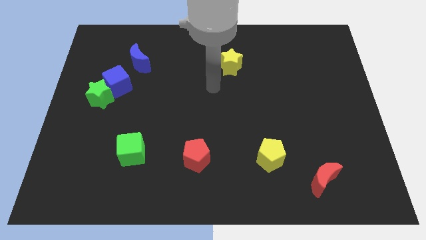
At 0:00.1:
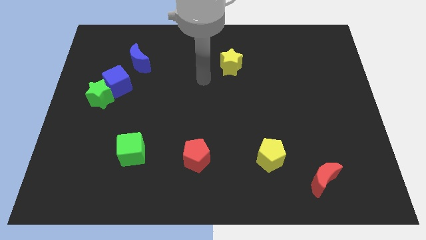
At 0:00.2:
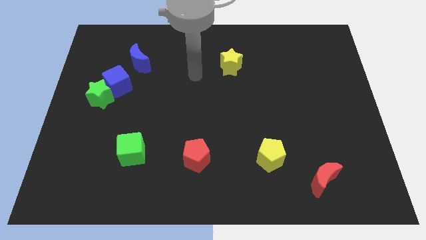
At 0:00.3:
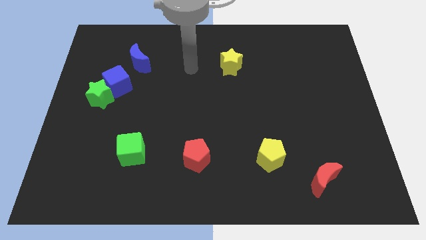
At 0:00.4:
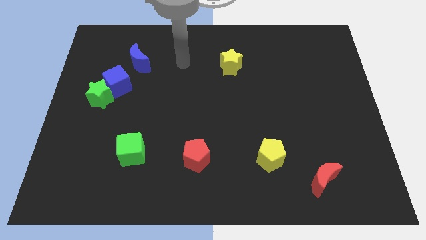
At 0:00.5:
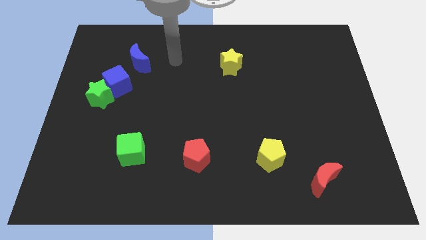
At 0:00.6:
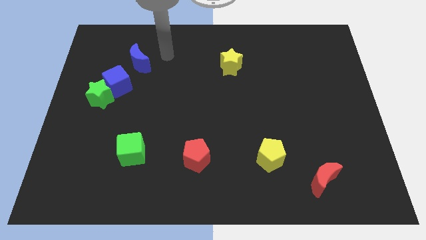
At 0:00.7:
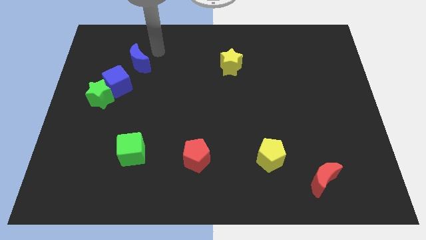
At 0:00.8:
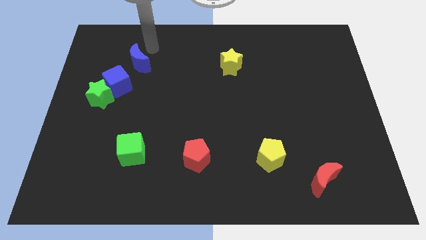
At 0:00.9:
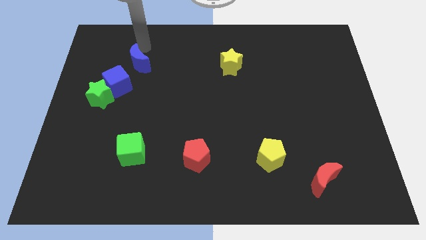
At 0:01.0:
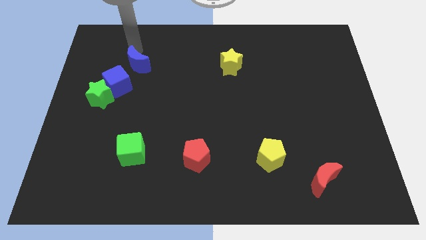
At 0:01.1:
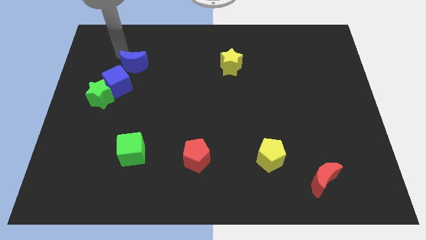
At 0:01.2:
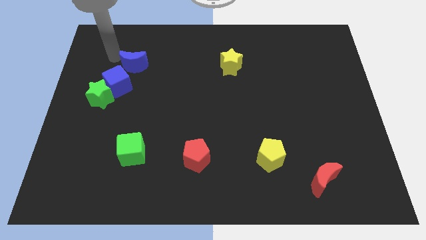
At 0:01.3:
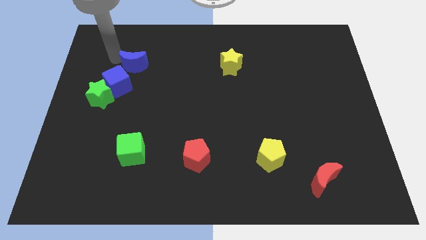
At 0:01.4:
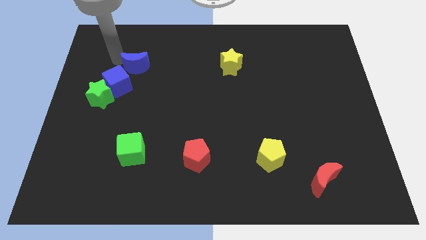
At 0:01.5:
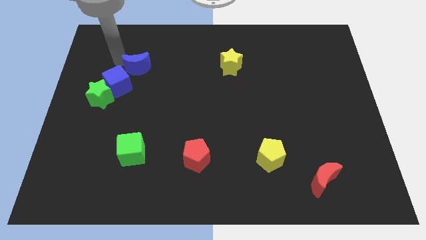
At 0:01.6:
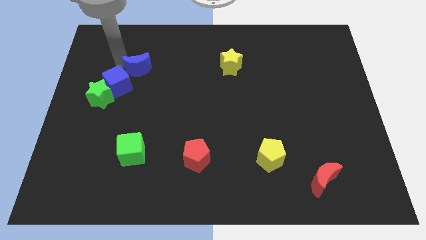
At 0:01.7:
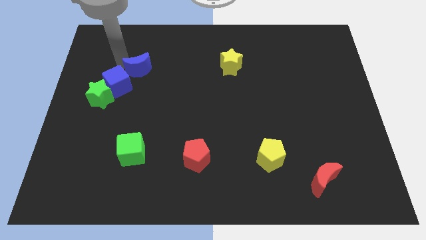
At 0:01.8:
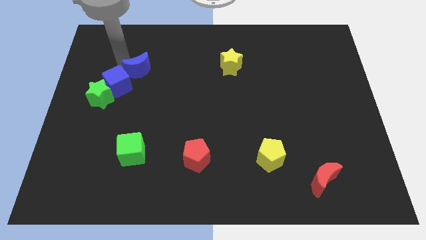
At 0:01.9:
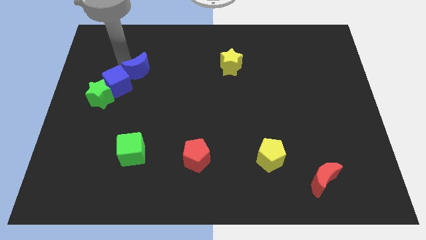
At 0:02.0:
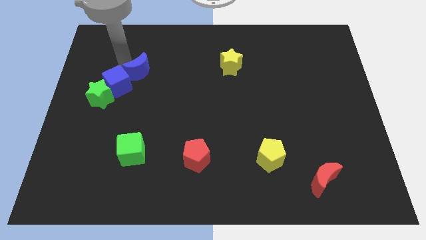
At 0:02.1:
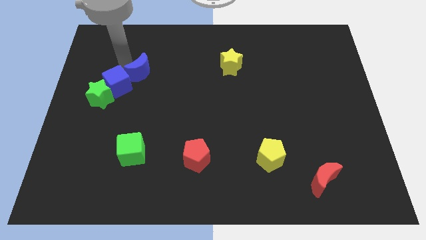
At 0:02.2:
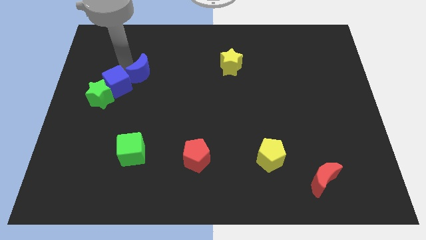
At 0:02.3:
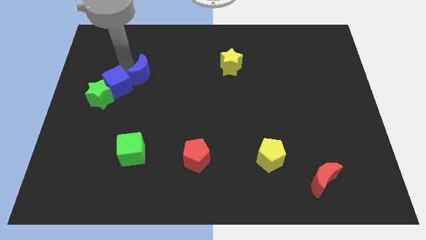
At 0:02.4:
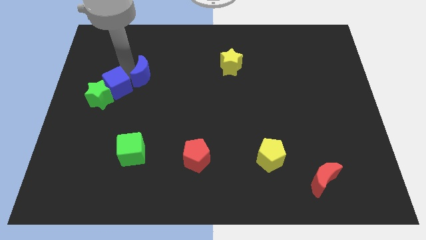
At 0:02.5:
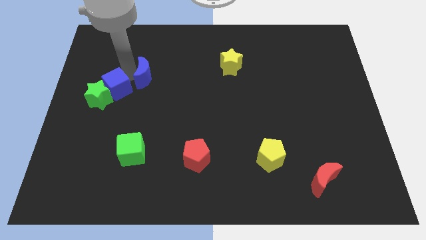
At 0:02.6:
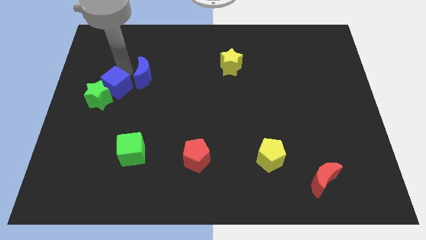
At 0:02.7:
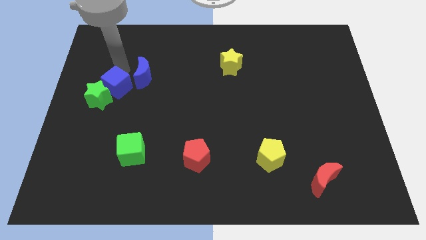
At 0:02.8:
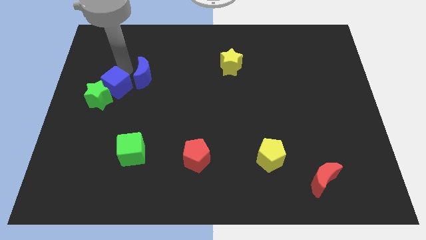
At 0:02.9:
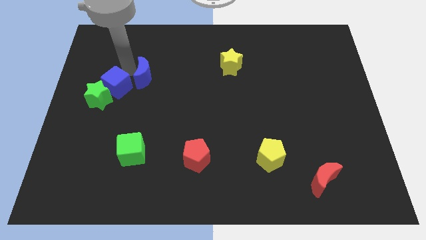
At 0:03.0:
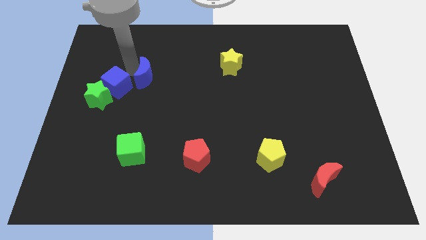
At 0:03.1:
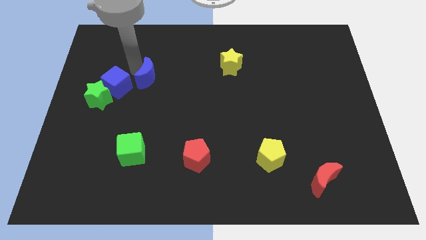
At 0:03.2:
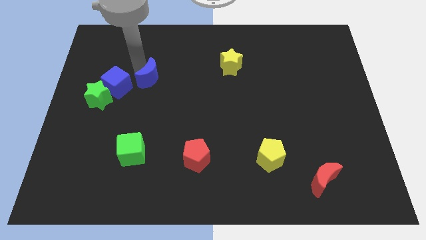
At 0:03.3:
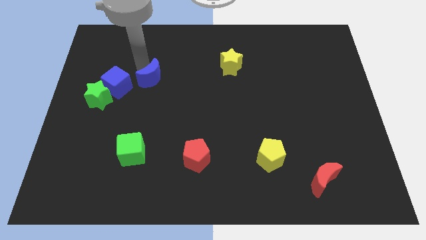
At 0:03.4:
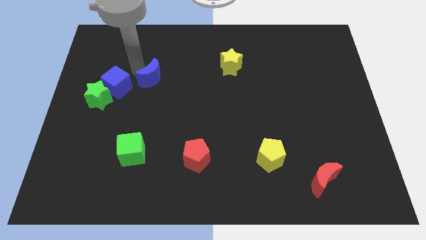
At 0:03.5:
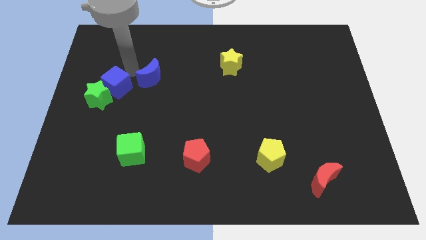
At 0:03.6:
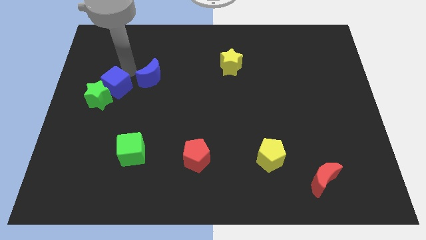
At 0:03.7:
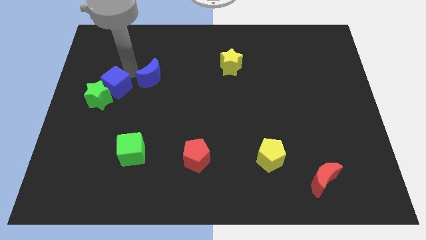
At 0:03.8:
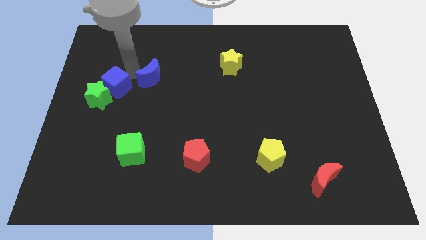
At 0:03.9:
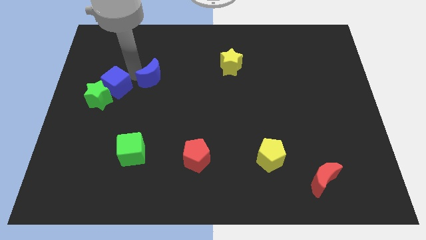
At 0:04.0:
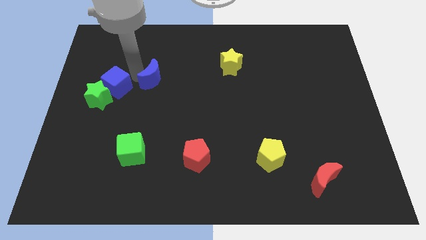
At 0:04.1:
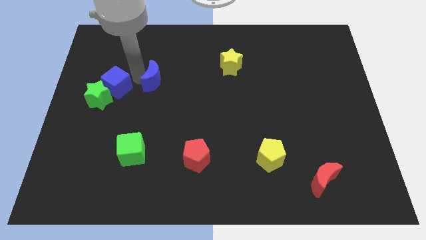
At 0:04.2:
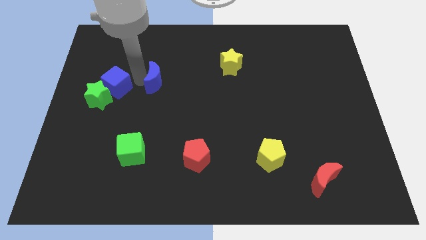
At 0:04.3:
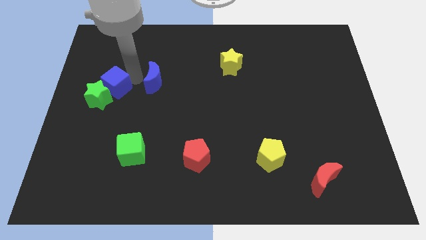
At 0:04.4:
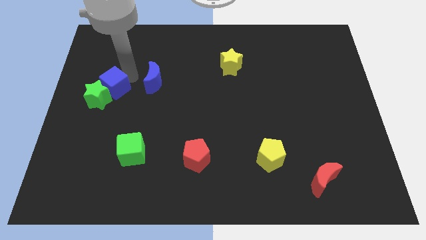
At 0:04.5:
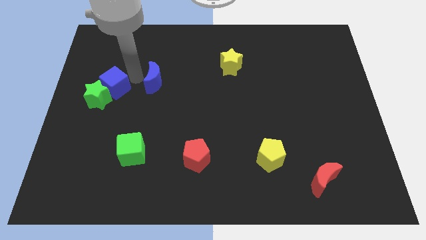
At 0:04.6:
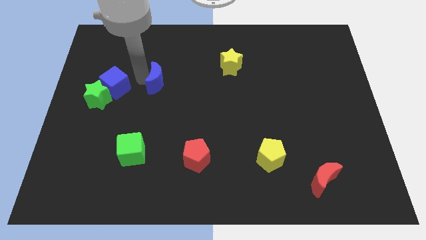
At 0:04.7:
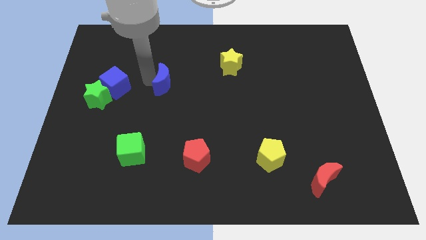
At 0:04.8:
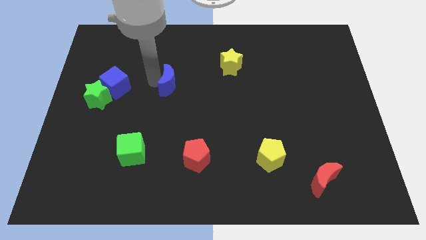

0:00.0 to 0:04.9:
push the blue moon to the center

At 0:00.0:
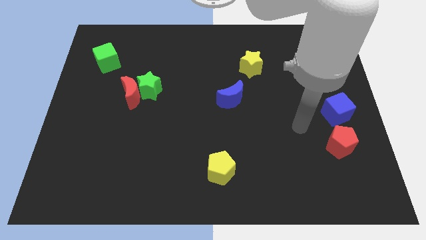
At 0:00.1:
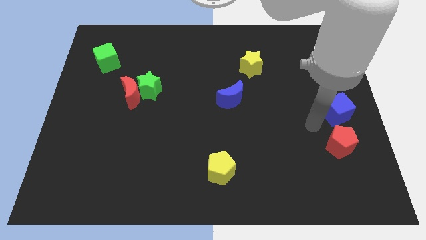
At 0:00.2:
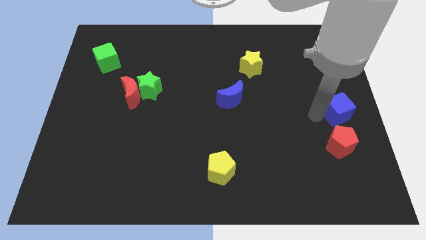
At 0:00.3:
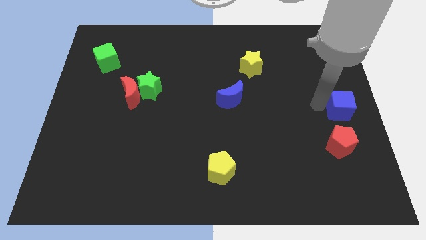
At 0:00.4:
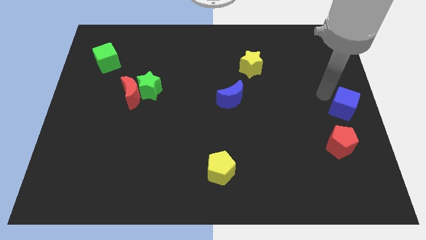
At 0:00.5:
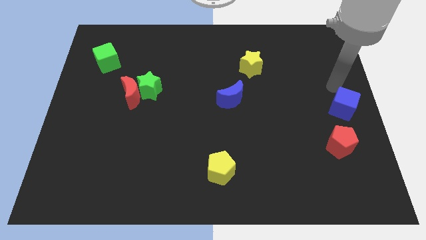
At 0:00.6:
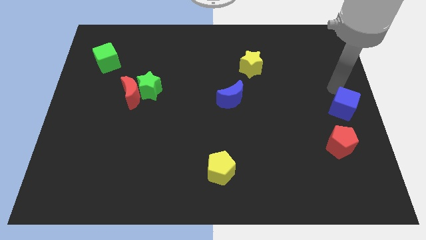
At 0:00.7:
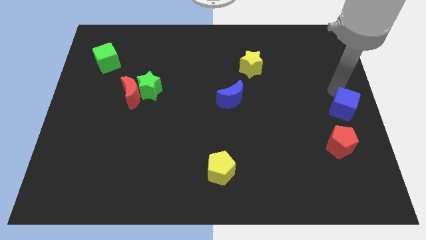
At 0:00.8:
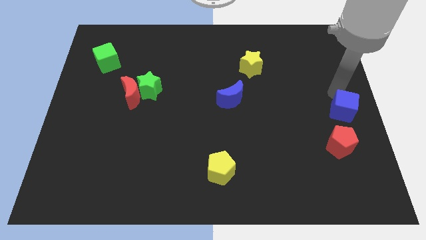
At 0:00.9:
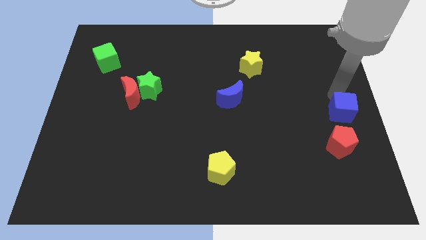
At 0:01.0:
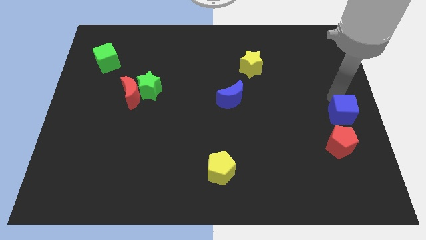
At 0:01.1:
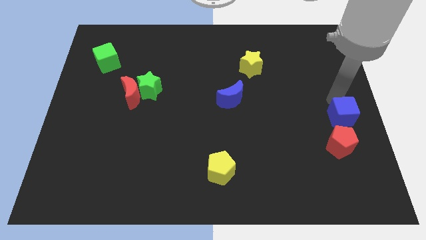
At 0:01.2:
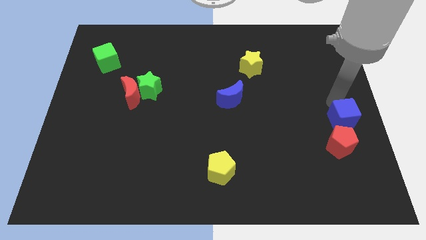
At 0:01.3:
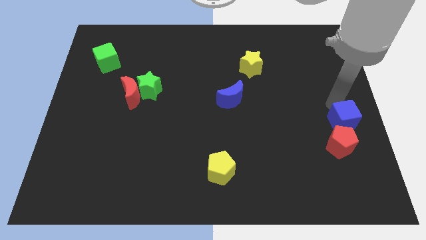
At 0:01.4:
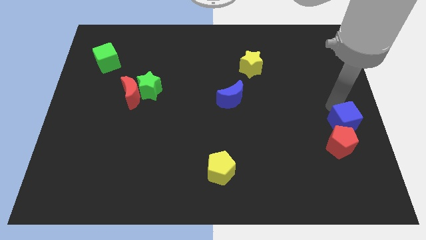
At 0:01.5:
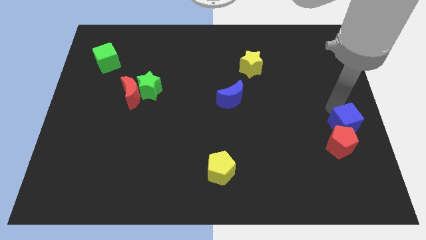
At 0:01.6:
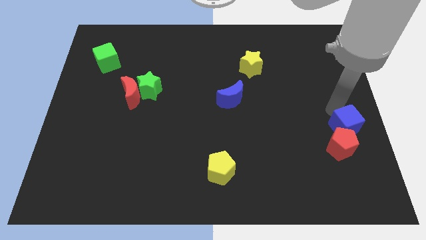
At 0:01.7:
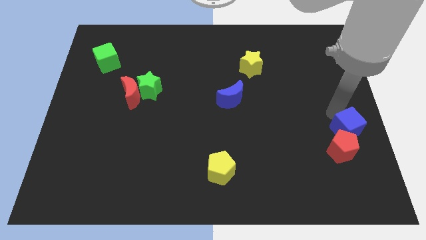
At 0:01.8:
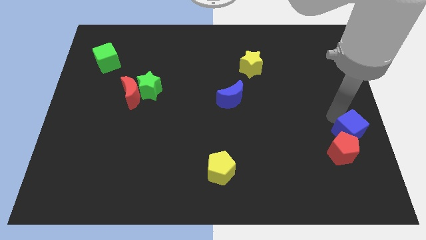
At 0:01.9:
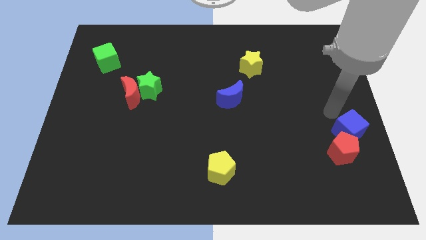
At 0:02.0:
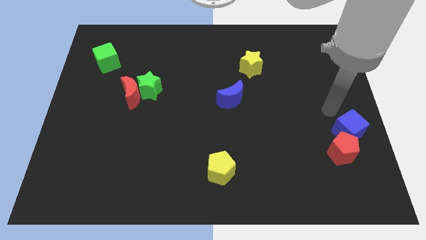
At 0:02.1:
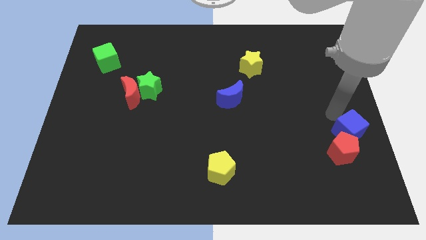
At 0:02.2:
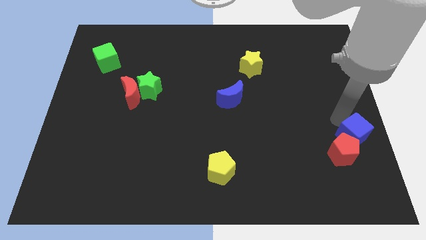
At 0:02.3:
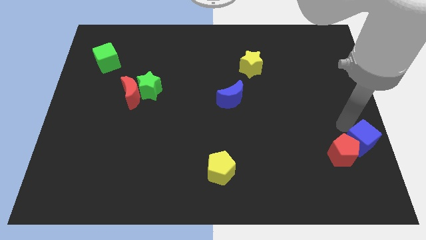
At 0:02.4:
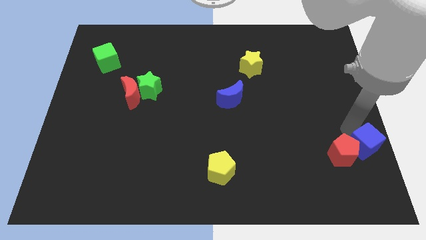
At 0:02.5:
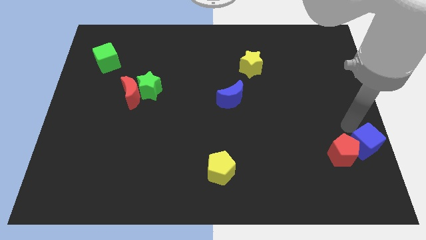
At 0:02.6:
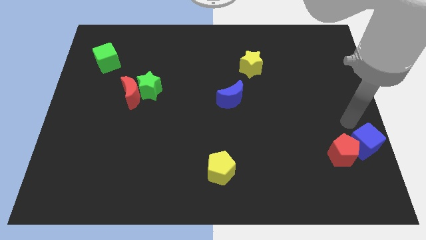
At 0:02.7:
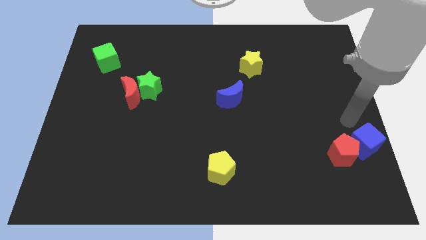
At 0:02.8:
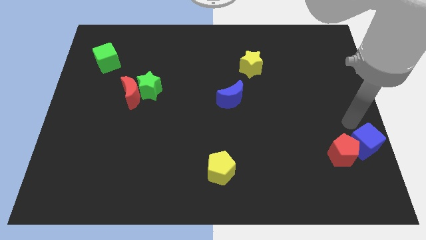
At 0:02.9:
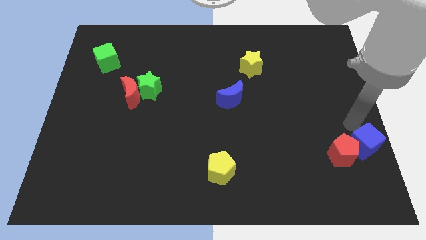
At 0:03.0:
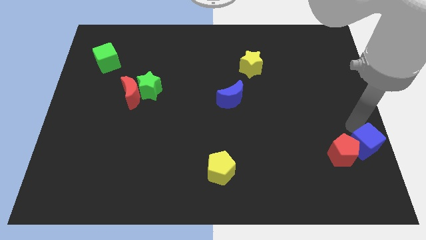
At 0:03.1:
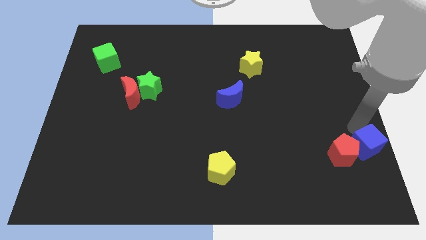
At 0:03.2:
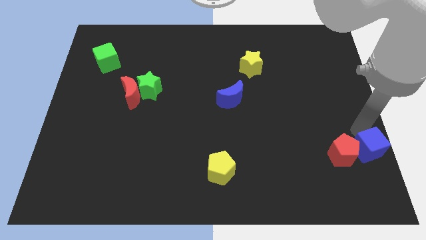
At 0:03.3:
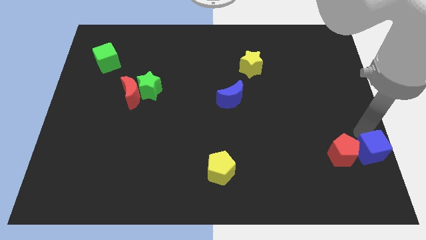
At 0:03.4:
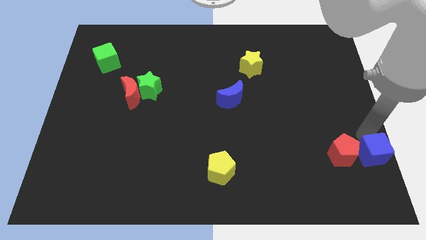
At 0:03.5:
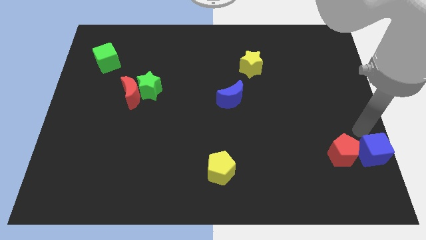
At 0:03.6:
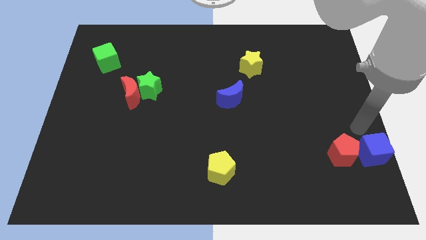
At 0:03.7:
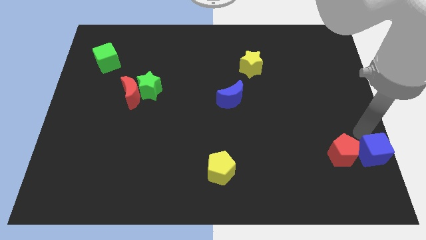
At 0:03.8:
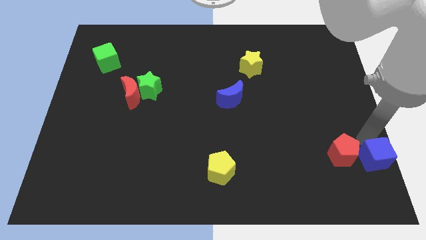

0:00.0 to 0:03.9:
move the blue cube to the lower right corner
